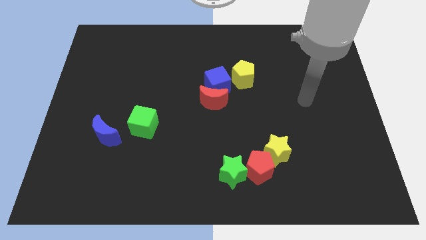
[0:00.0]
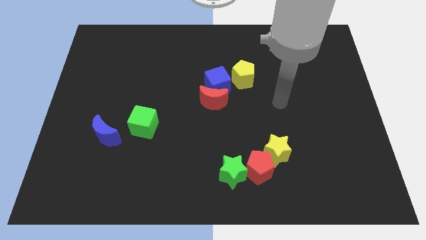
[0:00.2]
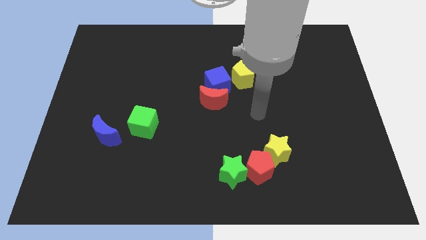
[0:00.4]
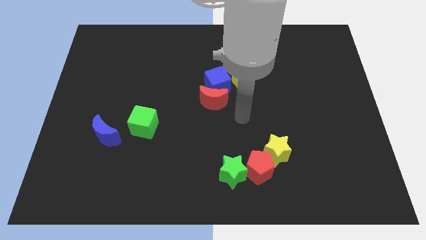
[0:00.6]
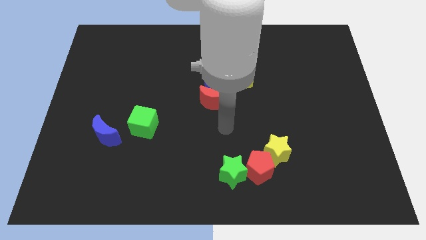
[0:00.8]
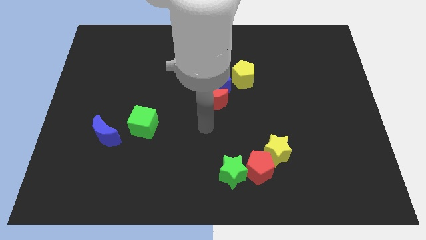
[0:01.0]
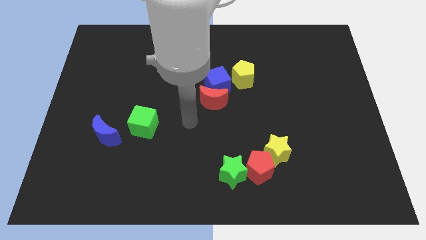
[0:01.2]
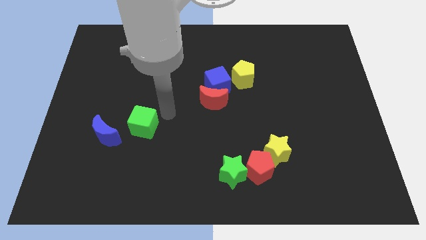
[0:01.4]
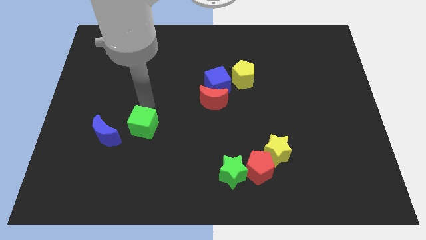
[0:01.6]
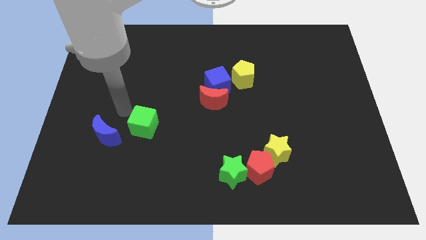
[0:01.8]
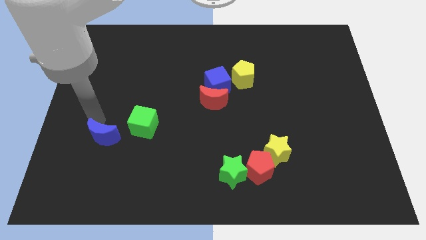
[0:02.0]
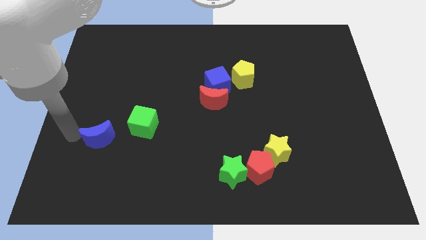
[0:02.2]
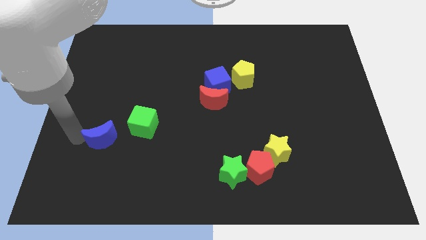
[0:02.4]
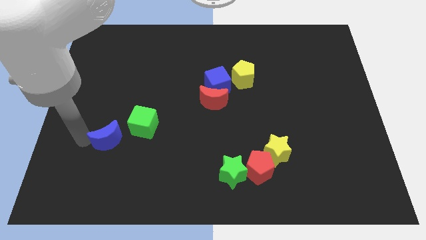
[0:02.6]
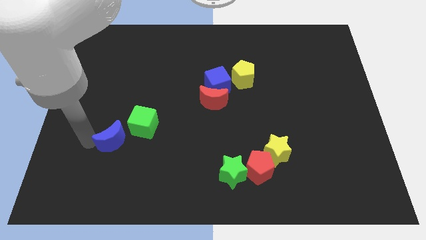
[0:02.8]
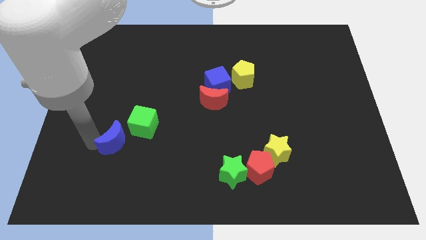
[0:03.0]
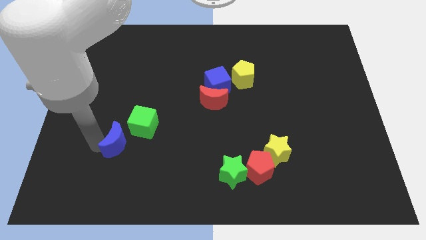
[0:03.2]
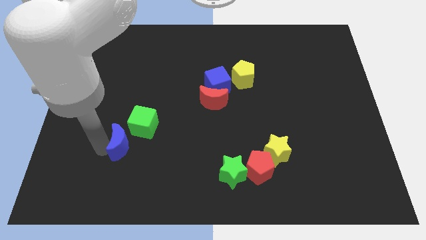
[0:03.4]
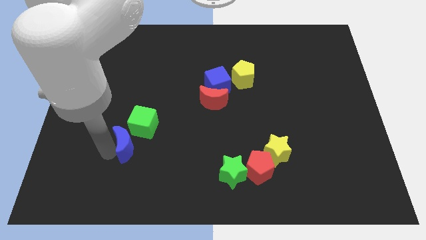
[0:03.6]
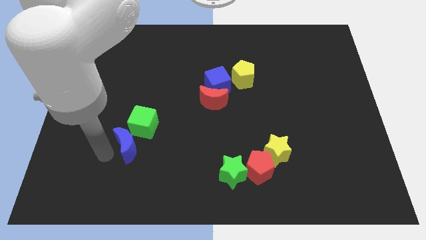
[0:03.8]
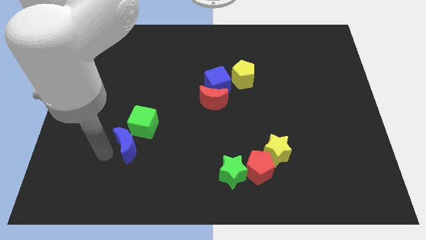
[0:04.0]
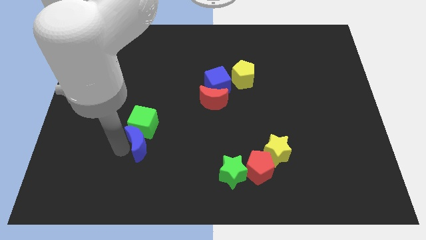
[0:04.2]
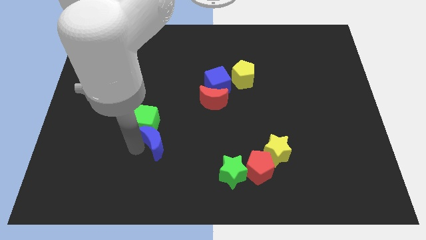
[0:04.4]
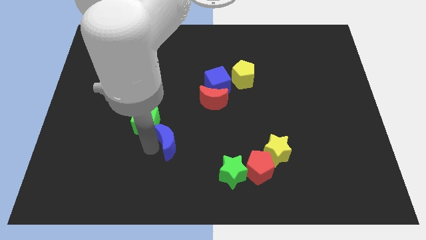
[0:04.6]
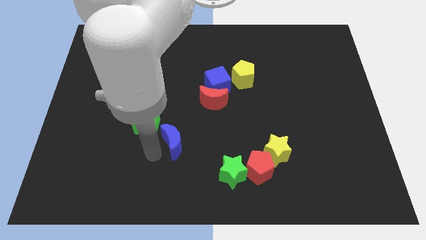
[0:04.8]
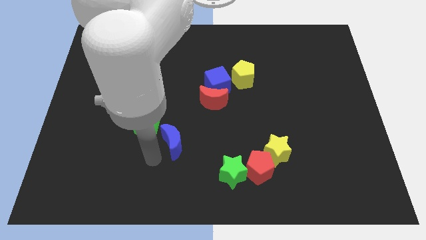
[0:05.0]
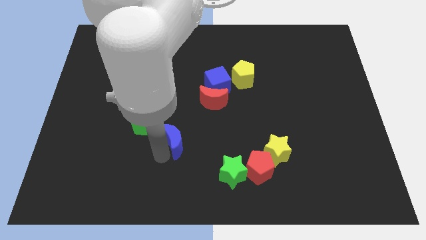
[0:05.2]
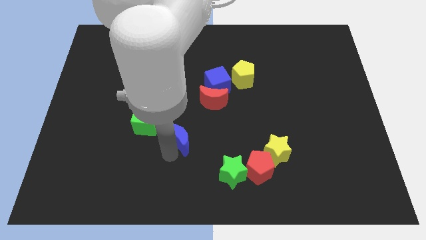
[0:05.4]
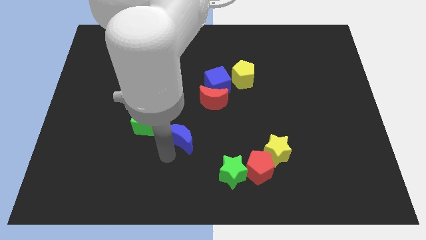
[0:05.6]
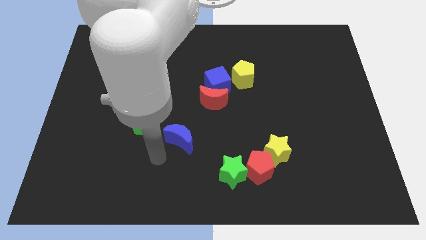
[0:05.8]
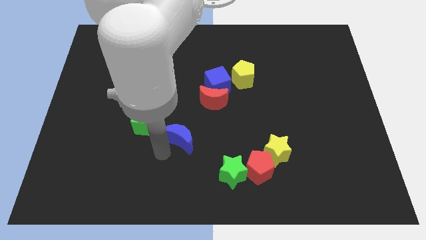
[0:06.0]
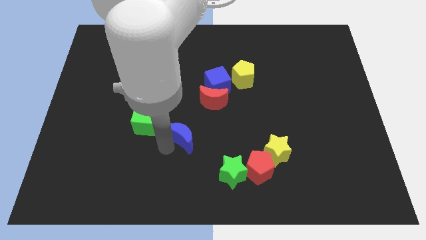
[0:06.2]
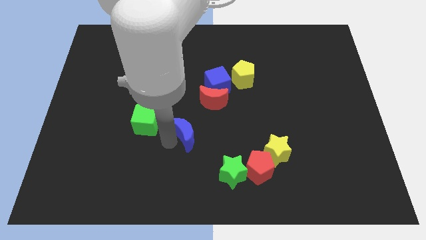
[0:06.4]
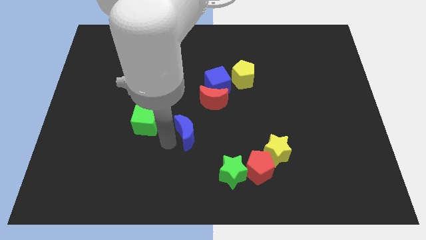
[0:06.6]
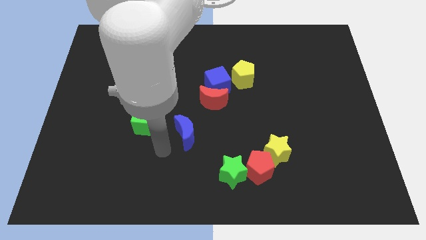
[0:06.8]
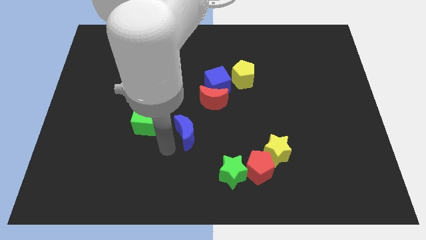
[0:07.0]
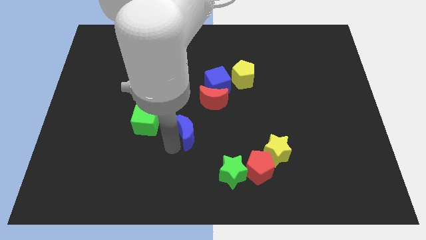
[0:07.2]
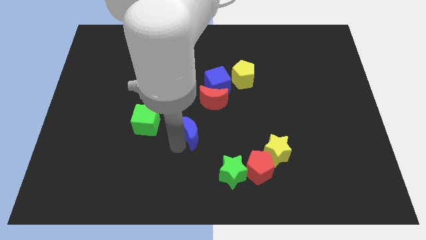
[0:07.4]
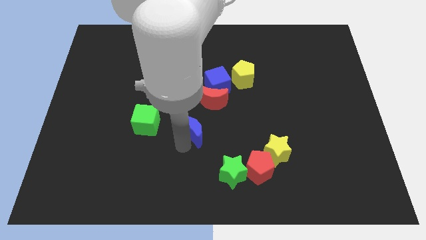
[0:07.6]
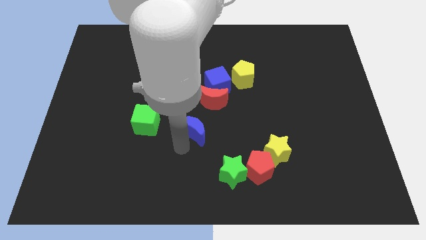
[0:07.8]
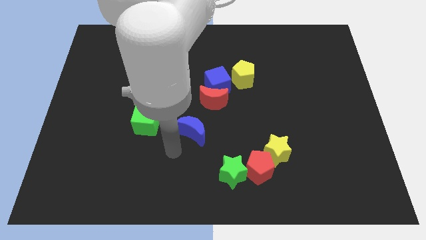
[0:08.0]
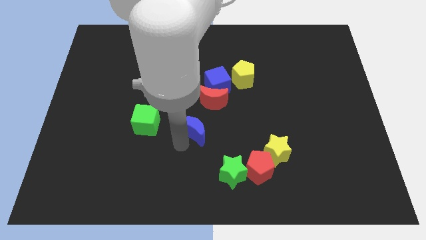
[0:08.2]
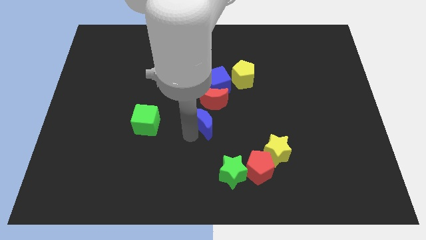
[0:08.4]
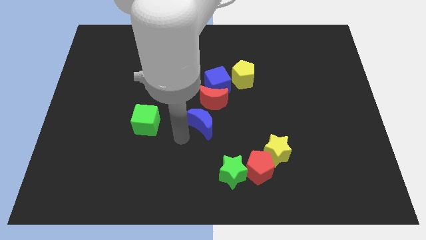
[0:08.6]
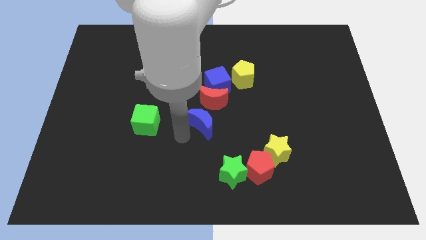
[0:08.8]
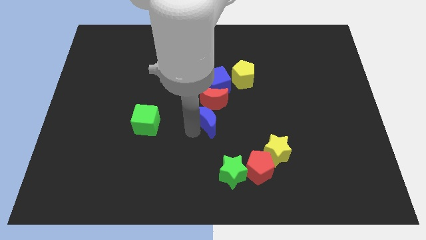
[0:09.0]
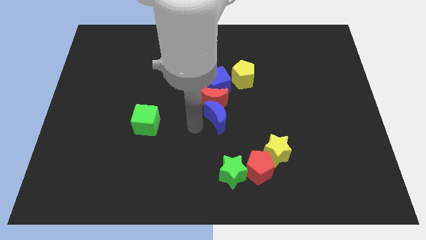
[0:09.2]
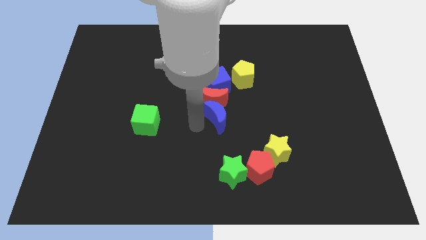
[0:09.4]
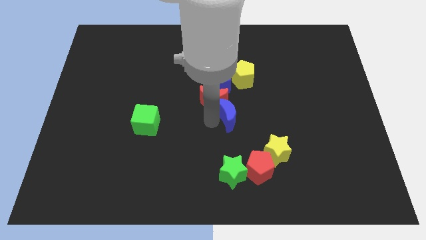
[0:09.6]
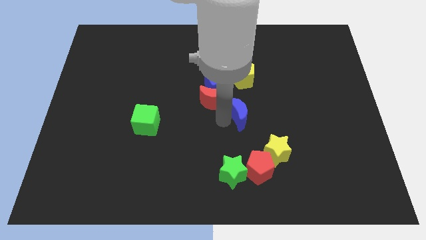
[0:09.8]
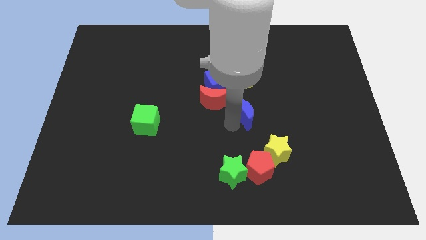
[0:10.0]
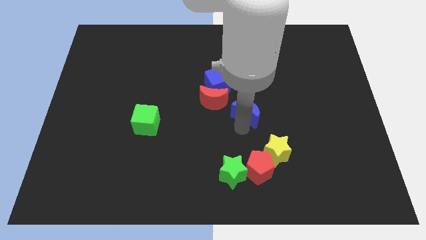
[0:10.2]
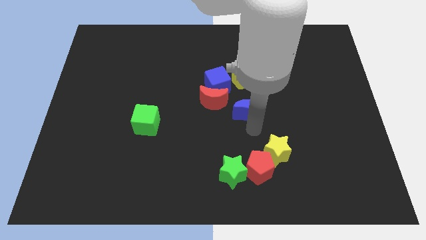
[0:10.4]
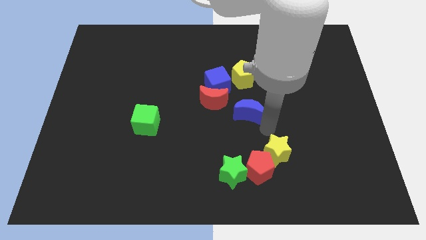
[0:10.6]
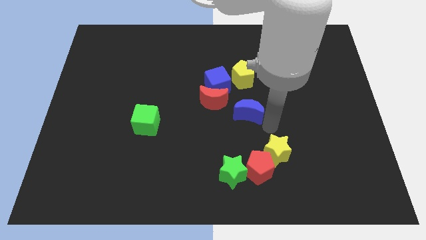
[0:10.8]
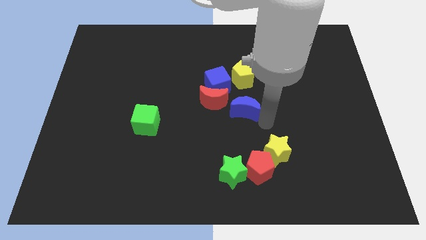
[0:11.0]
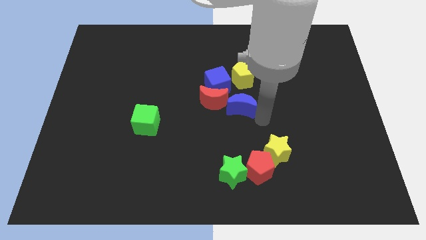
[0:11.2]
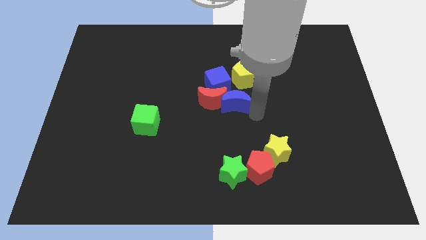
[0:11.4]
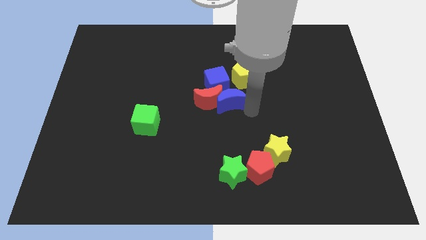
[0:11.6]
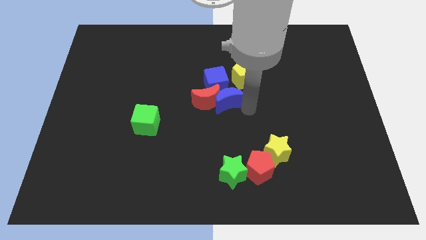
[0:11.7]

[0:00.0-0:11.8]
slide the blue moon to the blue cube

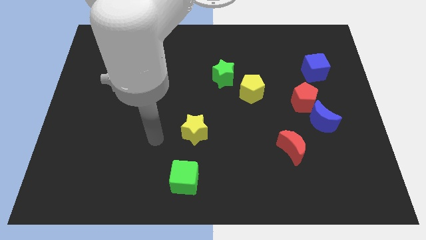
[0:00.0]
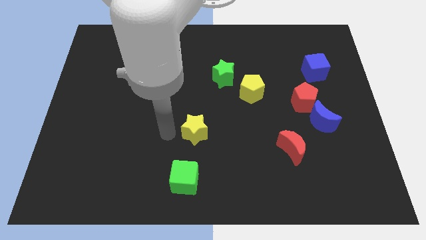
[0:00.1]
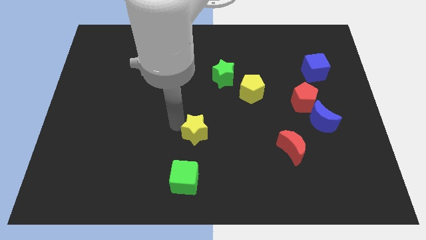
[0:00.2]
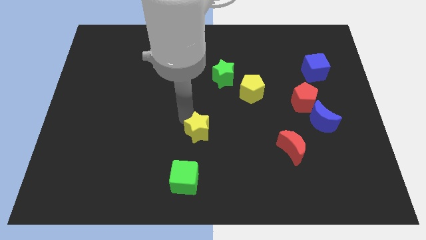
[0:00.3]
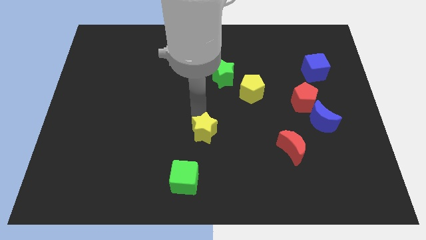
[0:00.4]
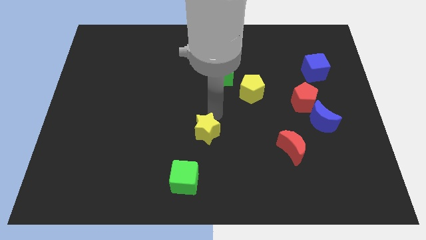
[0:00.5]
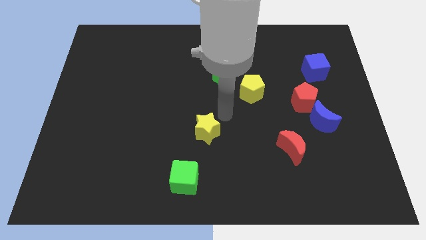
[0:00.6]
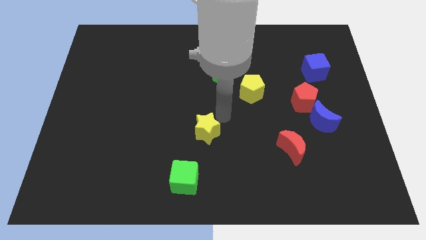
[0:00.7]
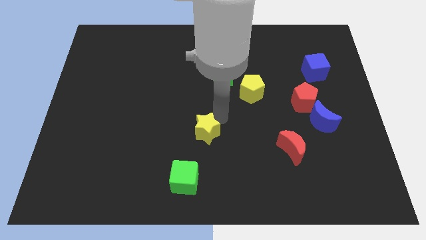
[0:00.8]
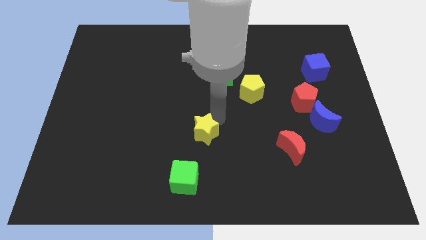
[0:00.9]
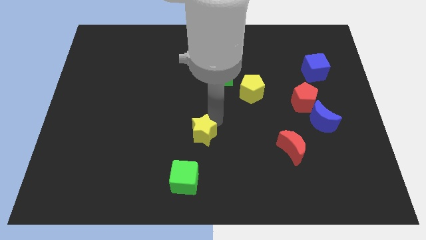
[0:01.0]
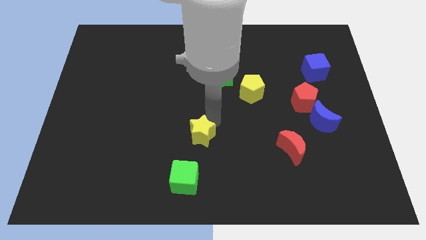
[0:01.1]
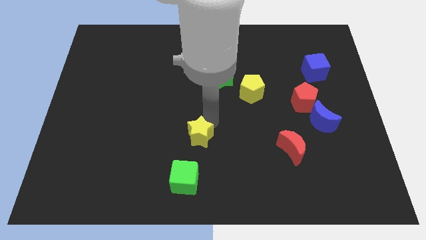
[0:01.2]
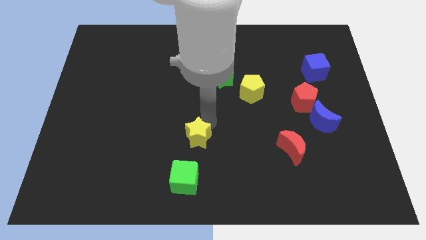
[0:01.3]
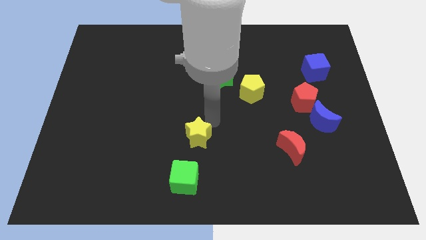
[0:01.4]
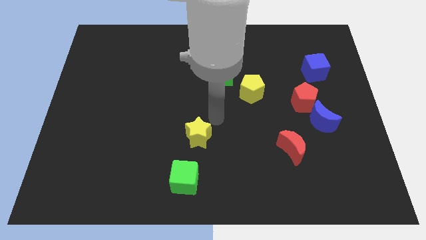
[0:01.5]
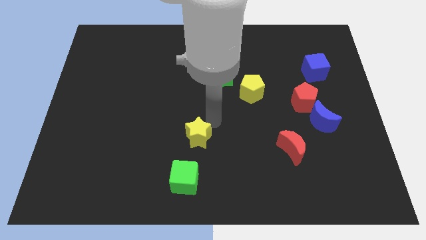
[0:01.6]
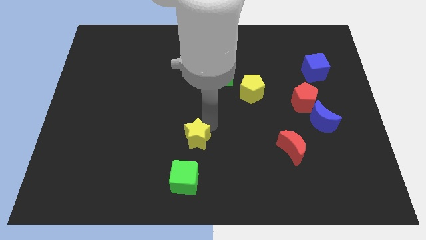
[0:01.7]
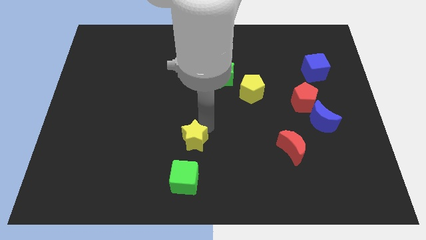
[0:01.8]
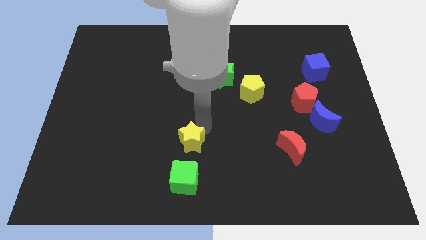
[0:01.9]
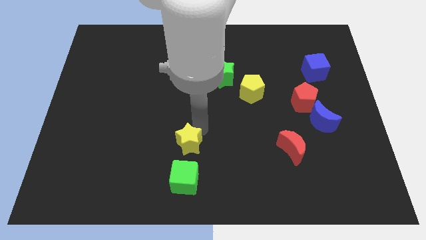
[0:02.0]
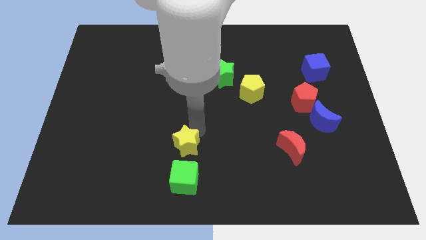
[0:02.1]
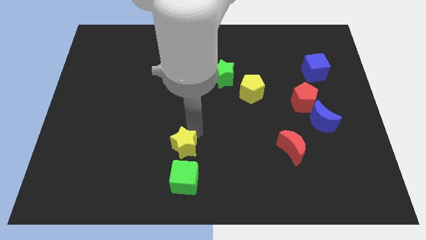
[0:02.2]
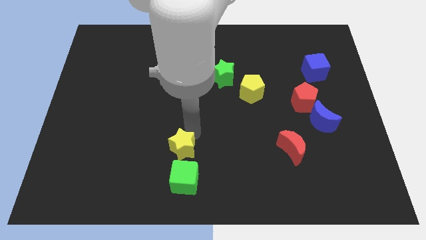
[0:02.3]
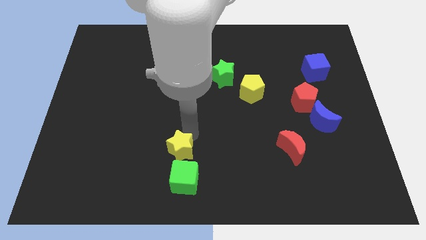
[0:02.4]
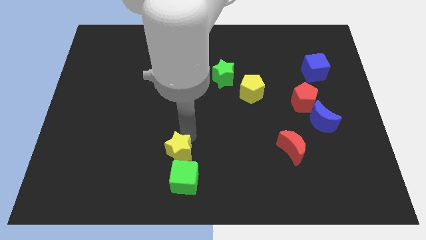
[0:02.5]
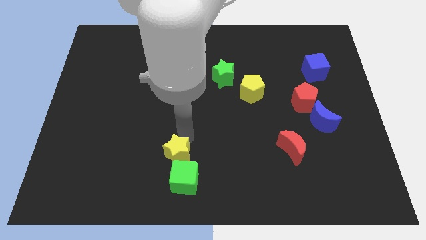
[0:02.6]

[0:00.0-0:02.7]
slide the yellow star towards the green cube
